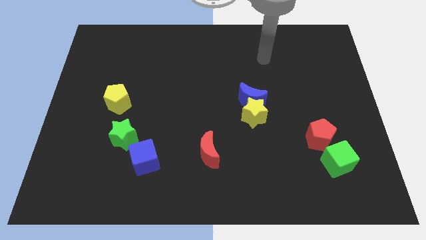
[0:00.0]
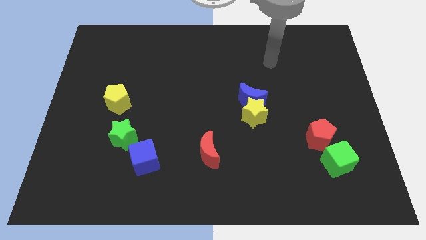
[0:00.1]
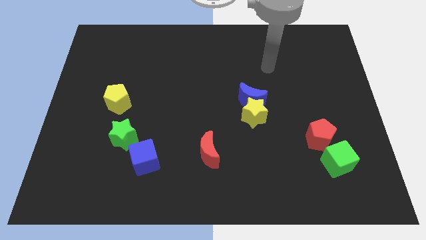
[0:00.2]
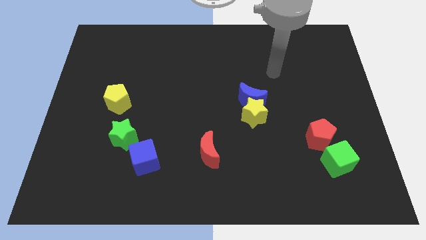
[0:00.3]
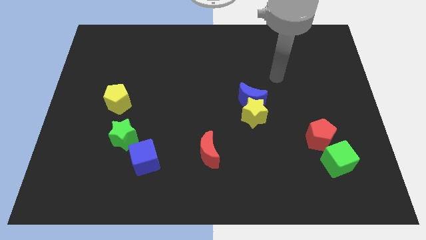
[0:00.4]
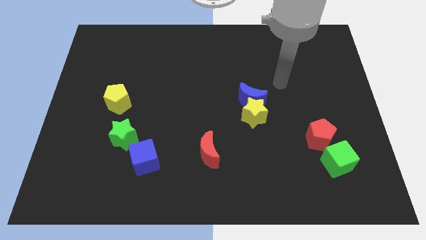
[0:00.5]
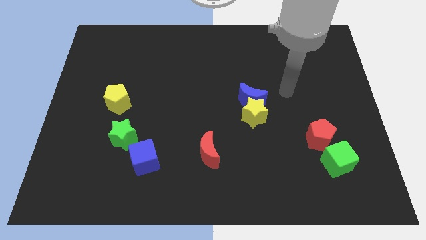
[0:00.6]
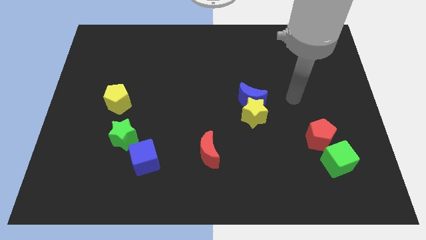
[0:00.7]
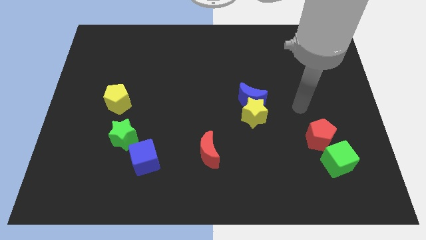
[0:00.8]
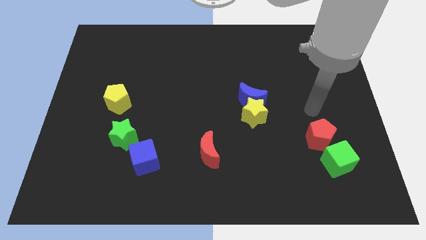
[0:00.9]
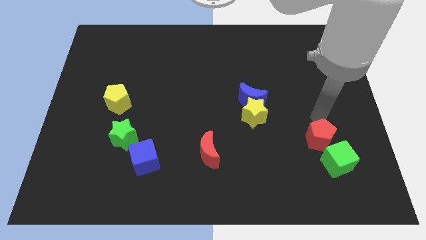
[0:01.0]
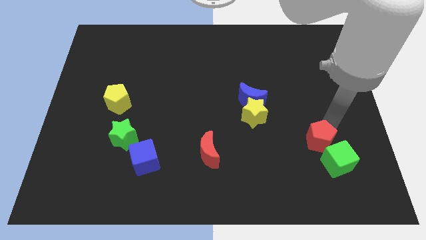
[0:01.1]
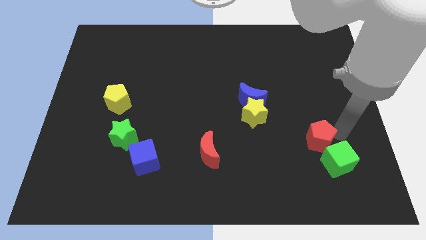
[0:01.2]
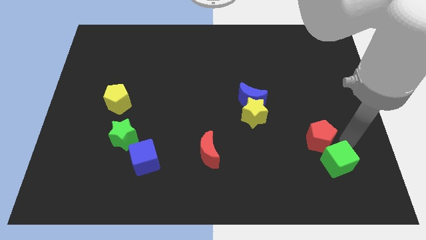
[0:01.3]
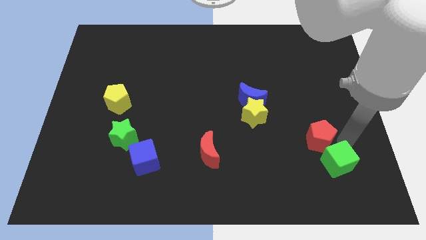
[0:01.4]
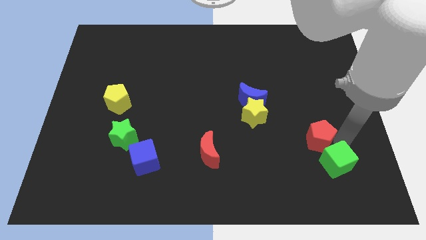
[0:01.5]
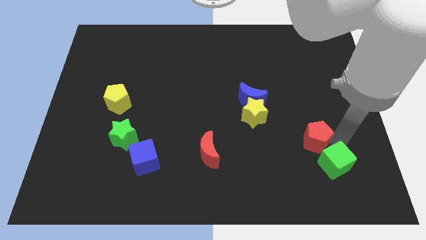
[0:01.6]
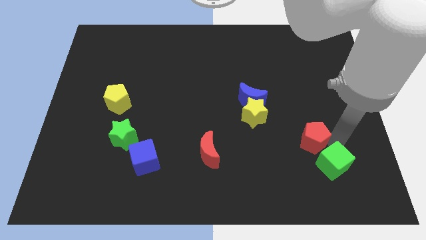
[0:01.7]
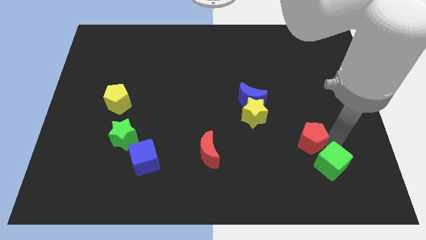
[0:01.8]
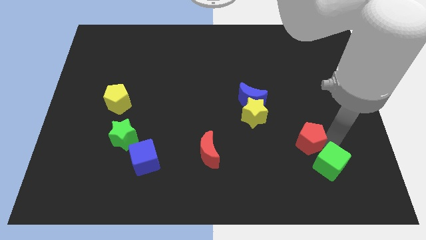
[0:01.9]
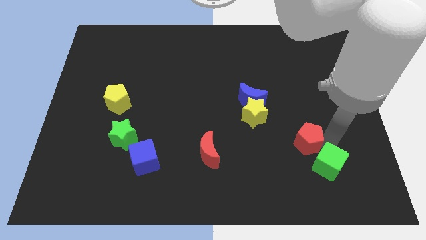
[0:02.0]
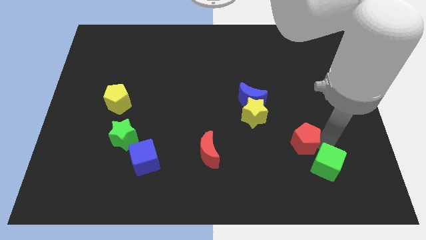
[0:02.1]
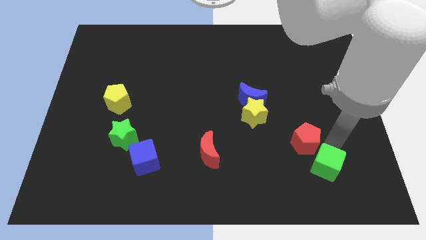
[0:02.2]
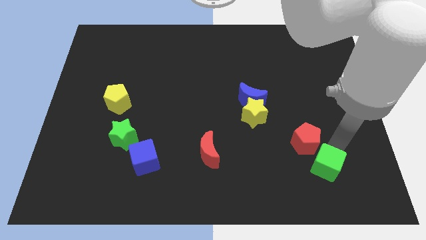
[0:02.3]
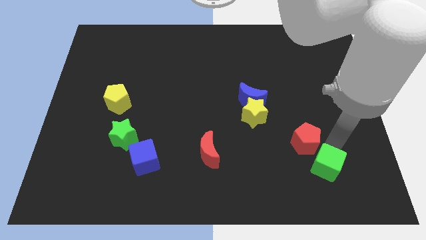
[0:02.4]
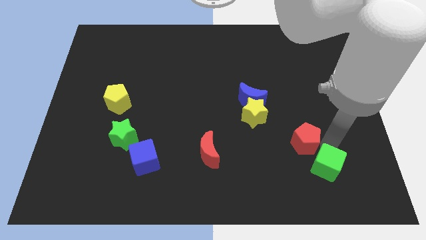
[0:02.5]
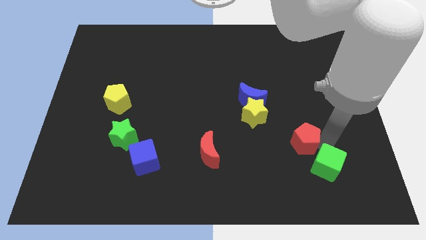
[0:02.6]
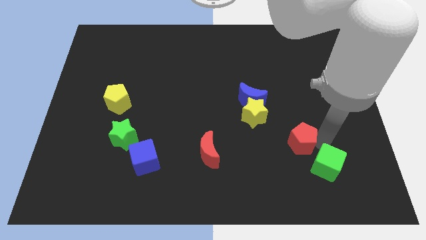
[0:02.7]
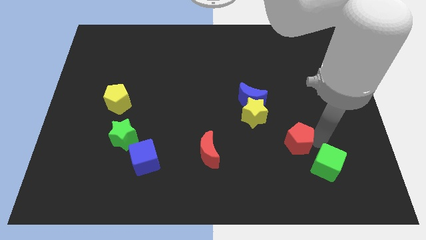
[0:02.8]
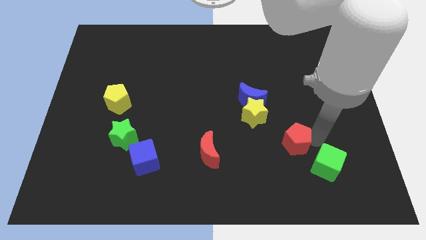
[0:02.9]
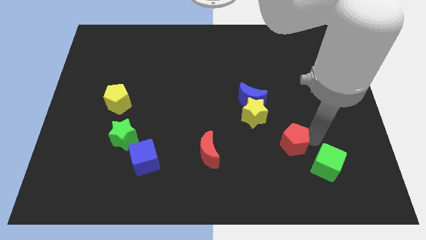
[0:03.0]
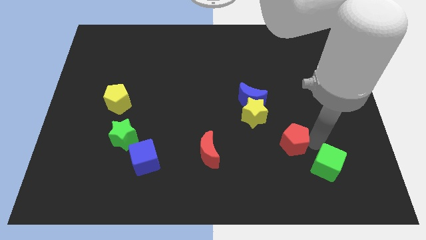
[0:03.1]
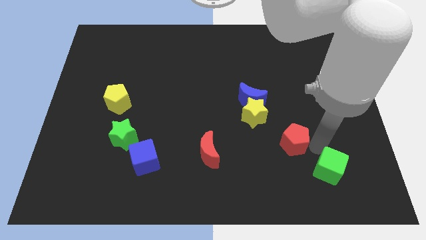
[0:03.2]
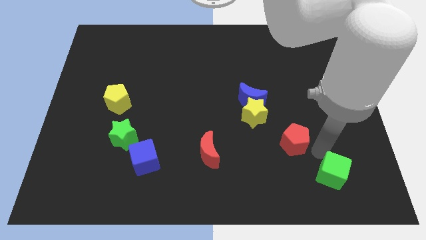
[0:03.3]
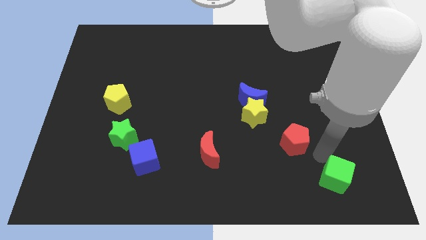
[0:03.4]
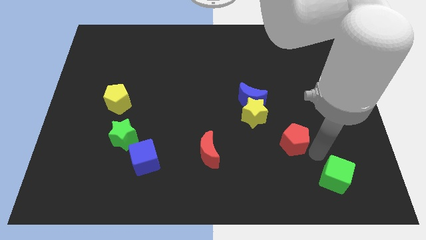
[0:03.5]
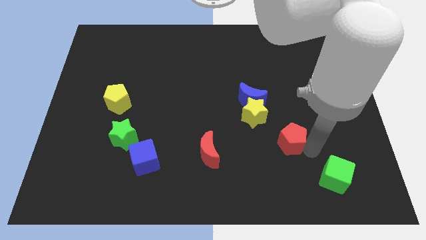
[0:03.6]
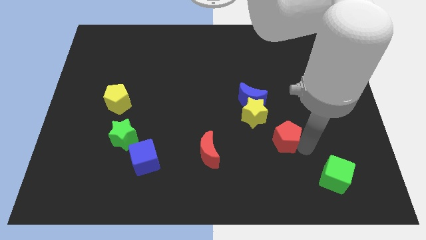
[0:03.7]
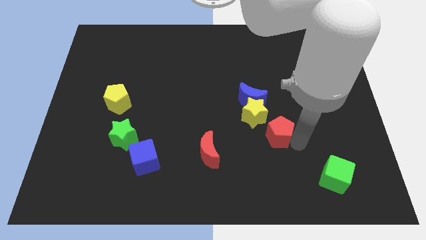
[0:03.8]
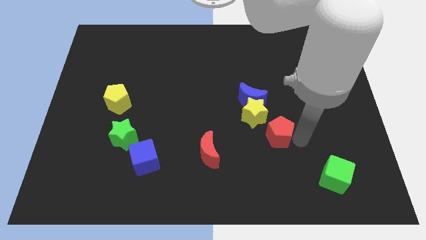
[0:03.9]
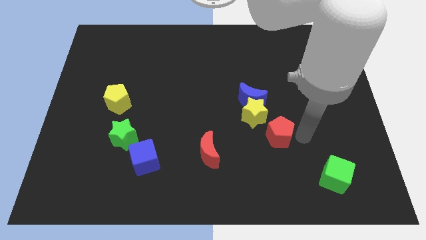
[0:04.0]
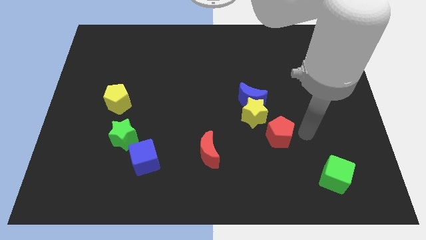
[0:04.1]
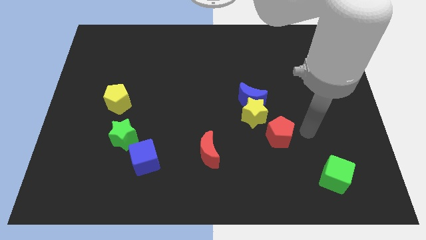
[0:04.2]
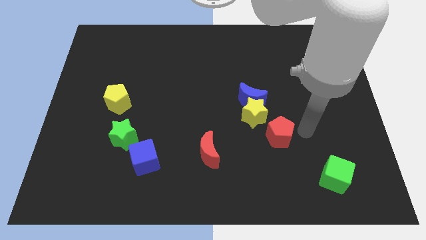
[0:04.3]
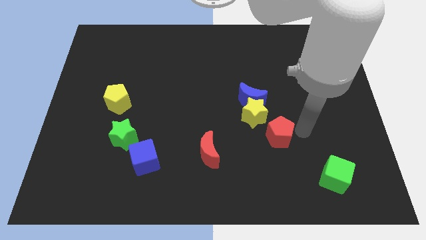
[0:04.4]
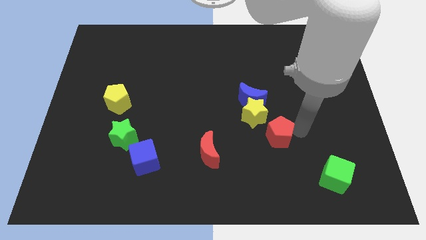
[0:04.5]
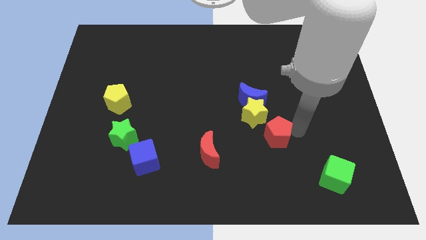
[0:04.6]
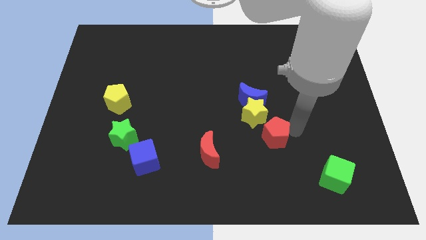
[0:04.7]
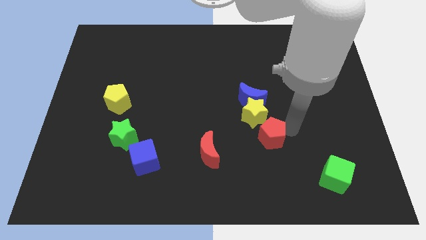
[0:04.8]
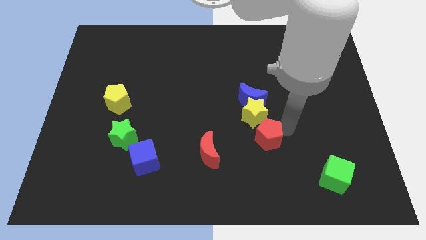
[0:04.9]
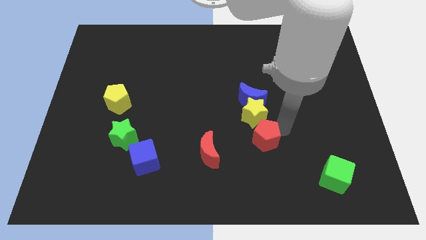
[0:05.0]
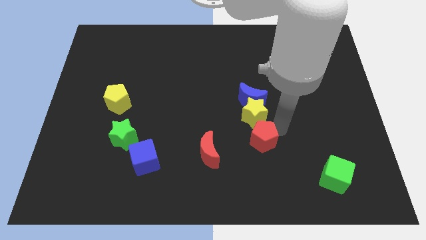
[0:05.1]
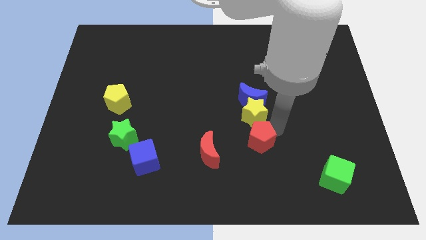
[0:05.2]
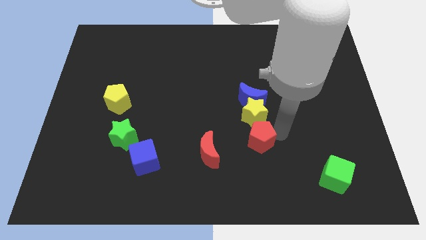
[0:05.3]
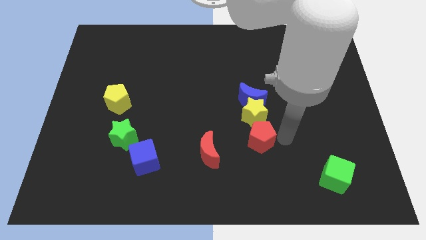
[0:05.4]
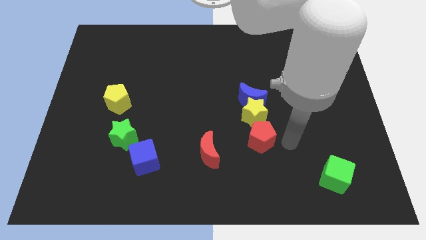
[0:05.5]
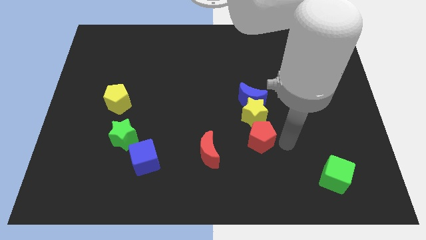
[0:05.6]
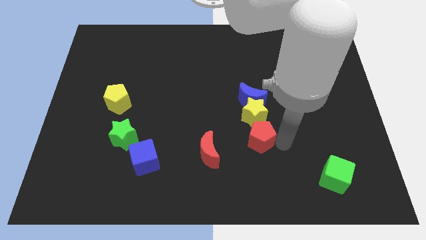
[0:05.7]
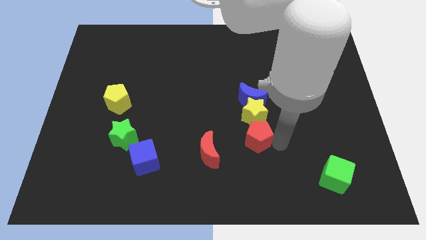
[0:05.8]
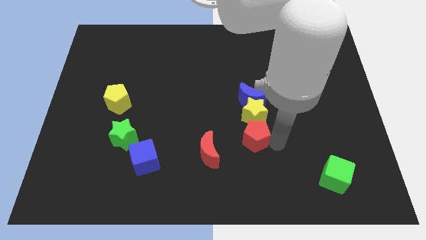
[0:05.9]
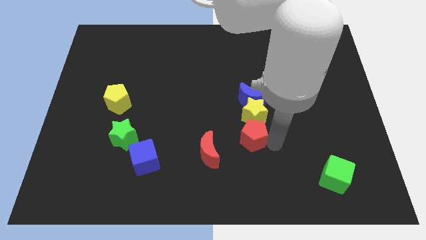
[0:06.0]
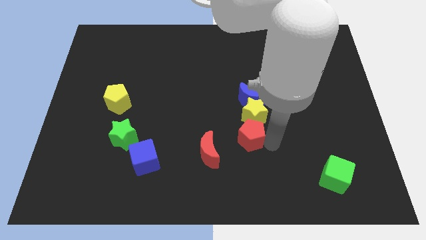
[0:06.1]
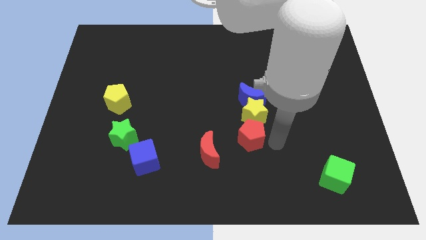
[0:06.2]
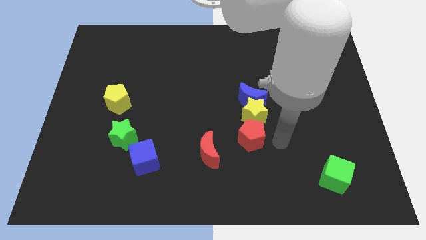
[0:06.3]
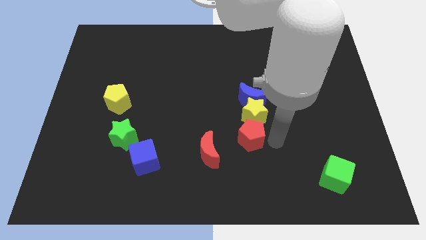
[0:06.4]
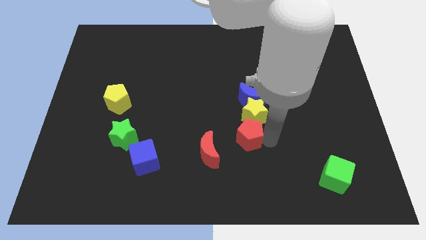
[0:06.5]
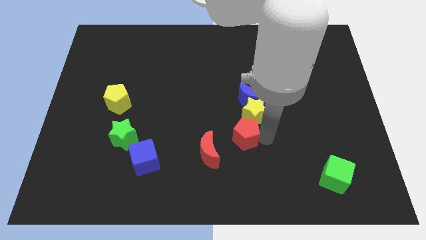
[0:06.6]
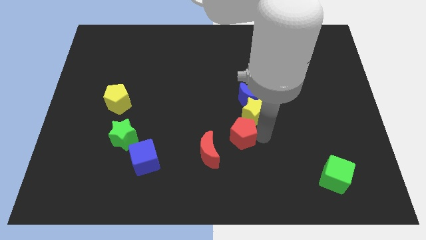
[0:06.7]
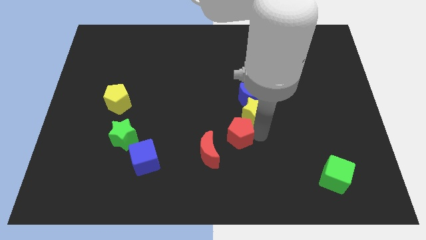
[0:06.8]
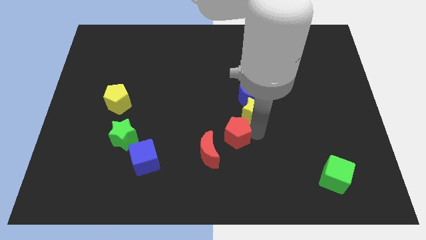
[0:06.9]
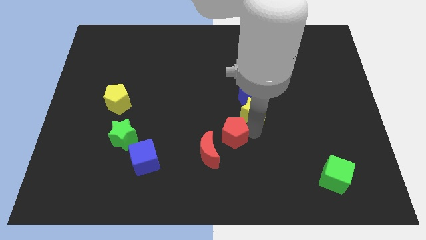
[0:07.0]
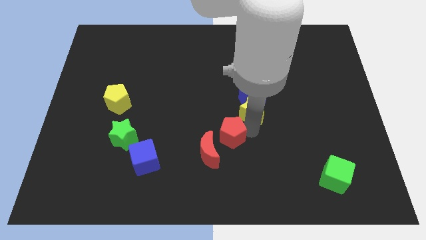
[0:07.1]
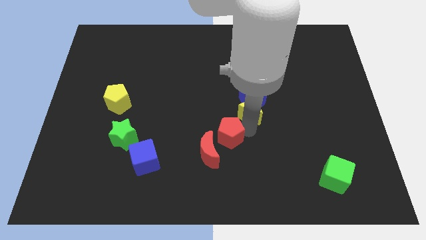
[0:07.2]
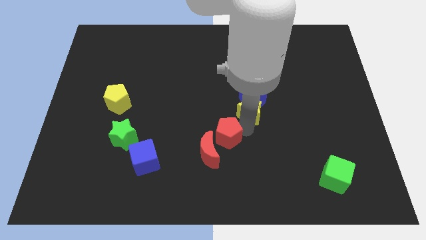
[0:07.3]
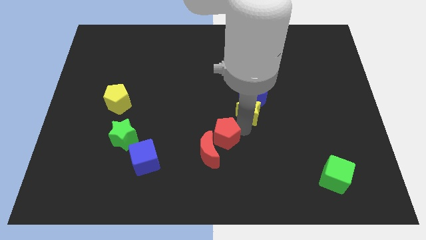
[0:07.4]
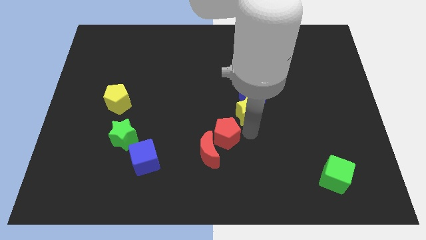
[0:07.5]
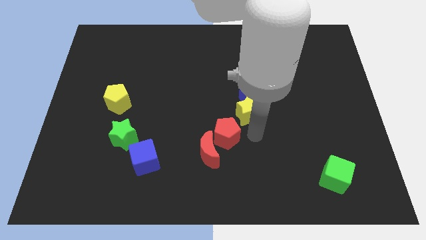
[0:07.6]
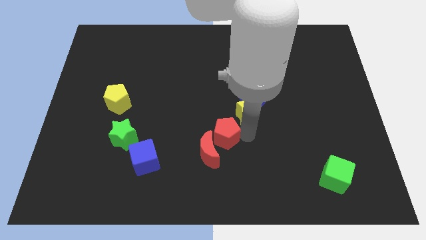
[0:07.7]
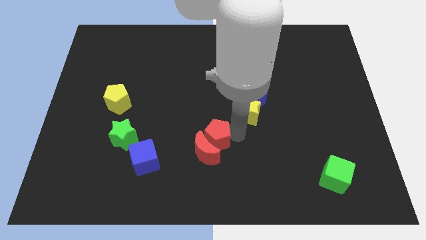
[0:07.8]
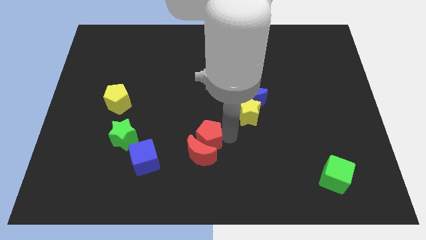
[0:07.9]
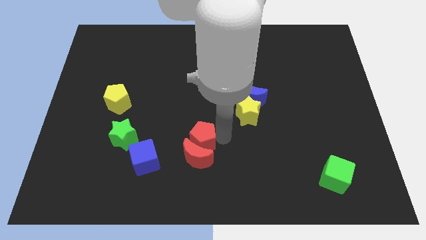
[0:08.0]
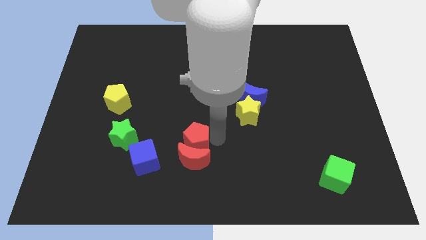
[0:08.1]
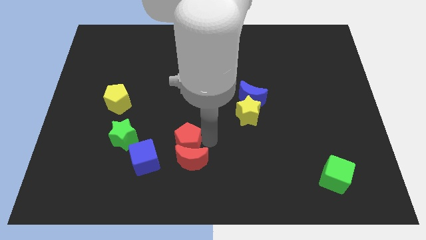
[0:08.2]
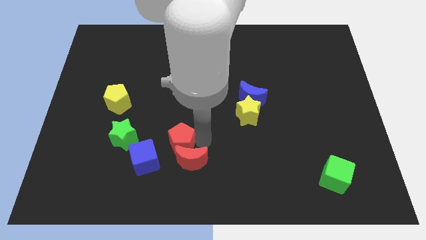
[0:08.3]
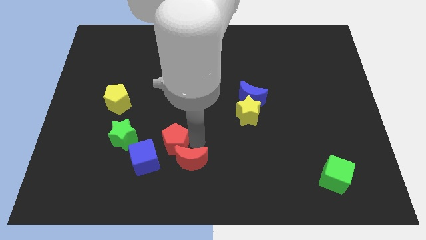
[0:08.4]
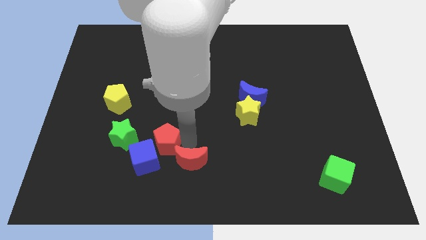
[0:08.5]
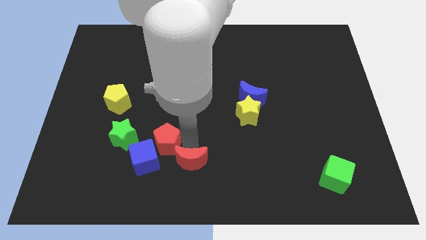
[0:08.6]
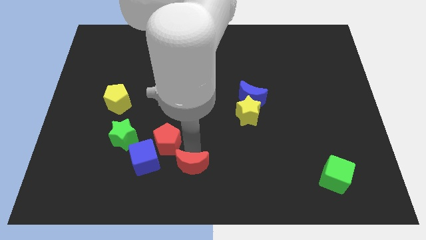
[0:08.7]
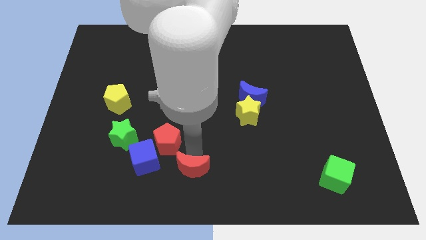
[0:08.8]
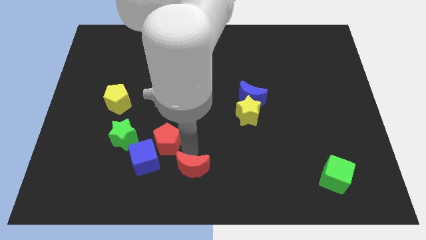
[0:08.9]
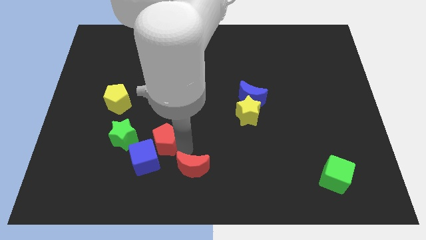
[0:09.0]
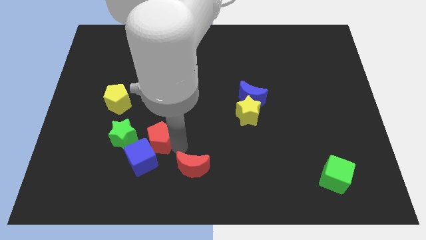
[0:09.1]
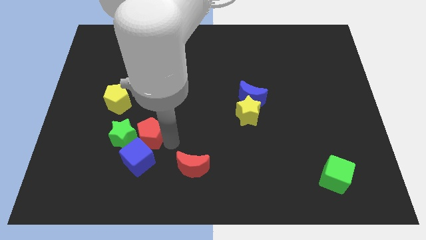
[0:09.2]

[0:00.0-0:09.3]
slide the red pentagon towards the green star
